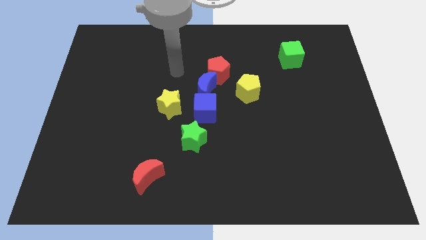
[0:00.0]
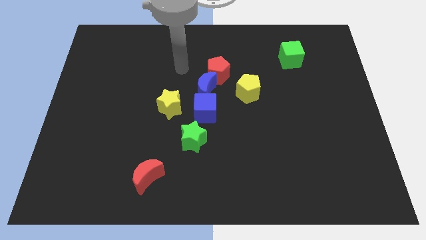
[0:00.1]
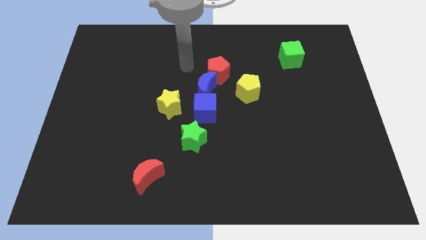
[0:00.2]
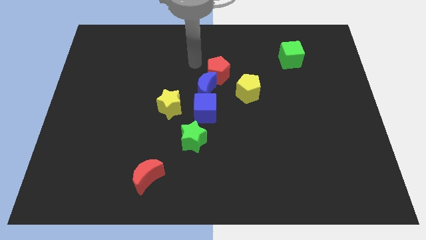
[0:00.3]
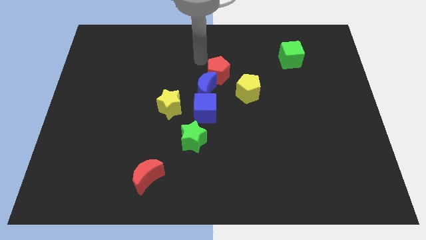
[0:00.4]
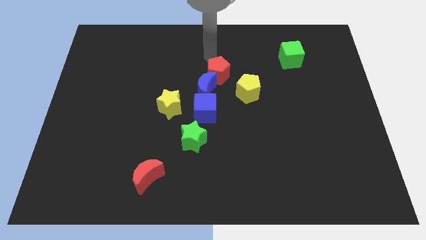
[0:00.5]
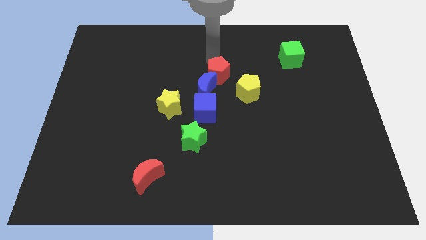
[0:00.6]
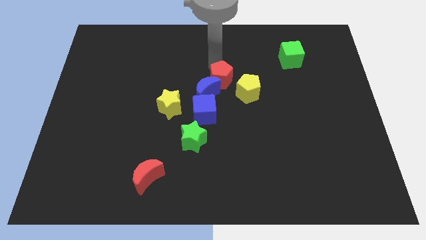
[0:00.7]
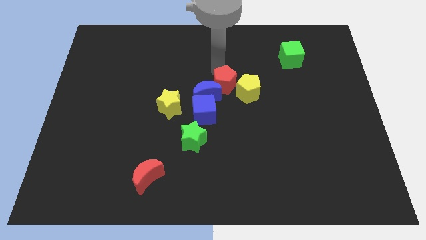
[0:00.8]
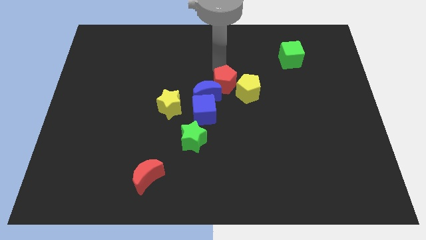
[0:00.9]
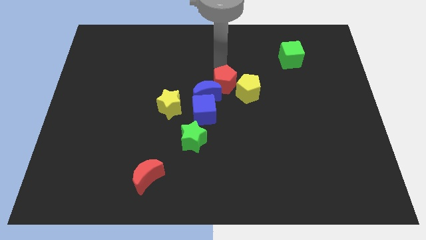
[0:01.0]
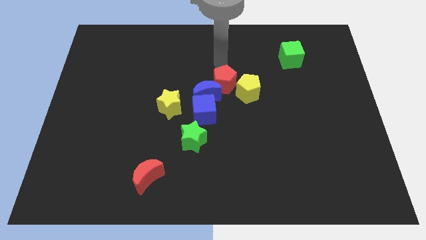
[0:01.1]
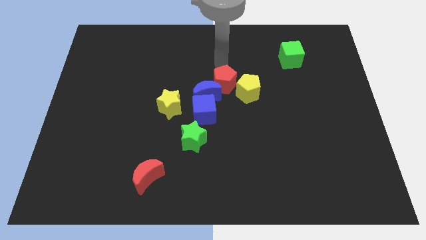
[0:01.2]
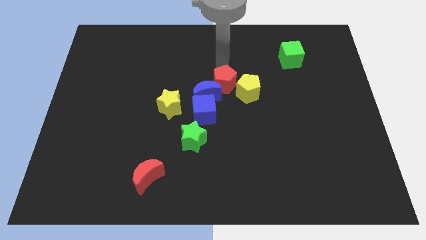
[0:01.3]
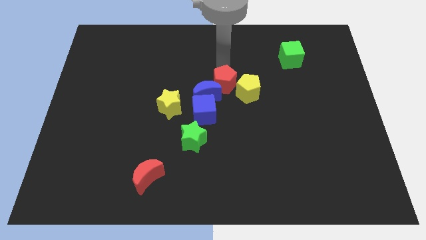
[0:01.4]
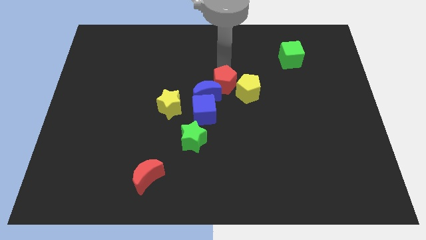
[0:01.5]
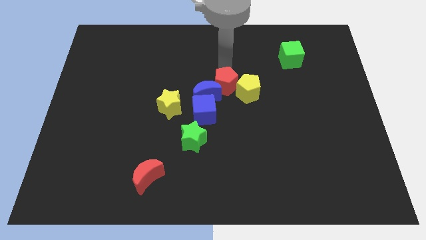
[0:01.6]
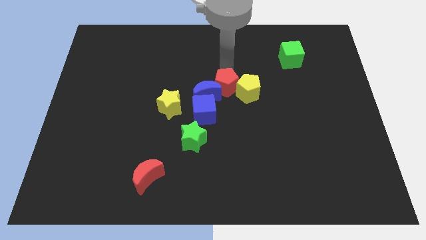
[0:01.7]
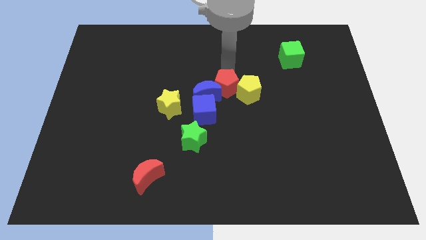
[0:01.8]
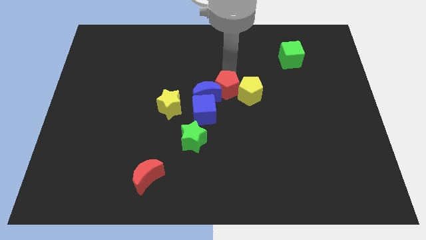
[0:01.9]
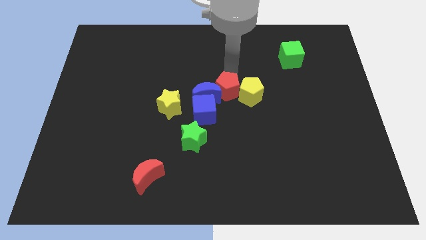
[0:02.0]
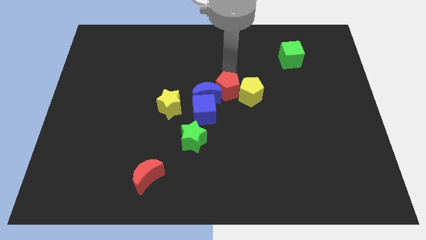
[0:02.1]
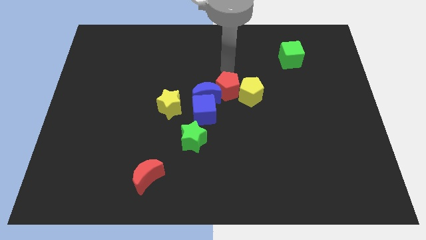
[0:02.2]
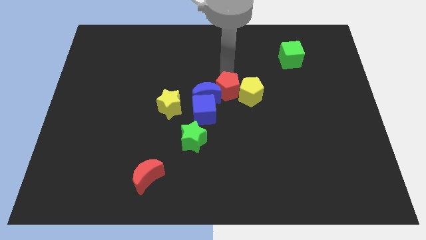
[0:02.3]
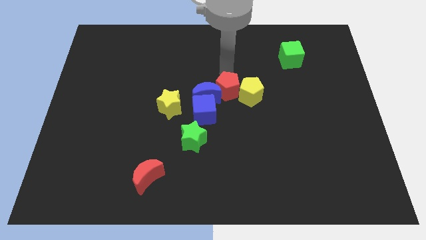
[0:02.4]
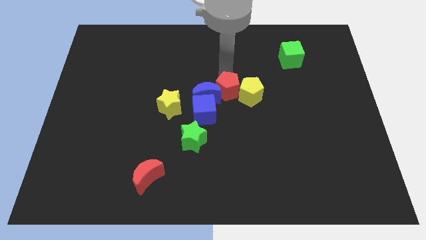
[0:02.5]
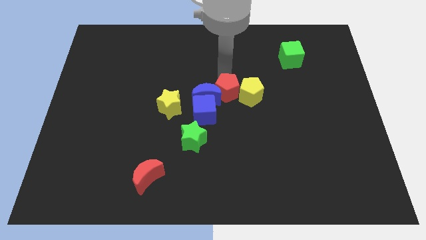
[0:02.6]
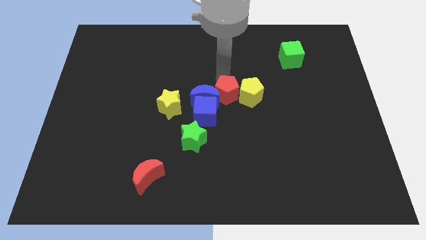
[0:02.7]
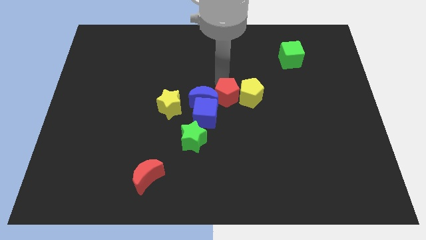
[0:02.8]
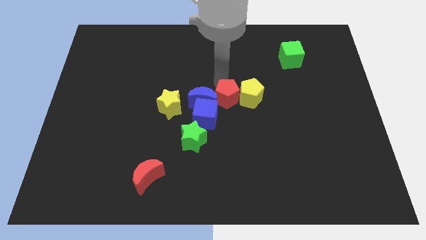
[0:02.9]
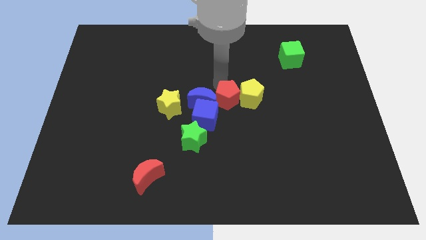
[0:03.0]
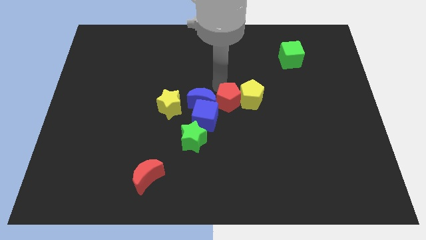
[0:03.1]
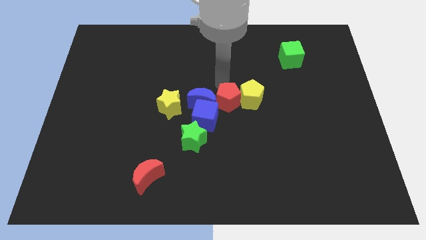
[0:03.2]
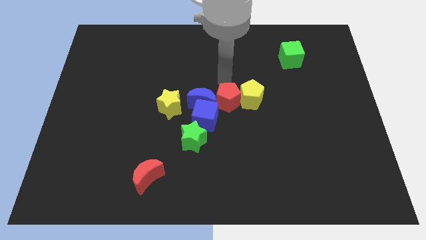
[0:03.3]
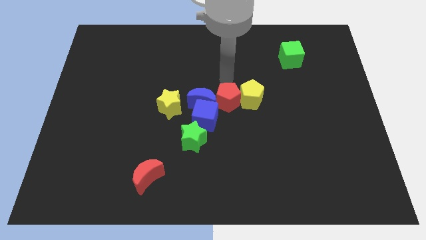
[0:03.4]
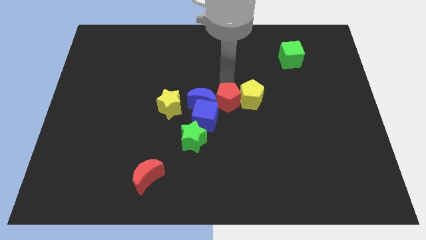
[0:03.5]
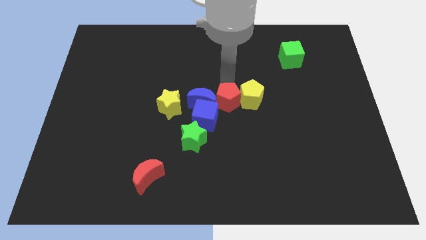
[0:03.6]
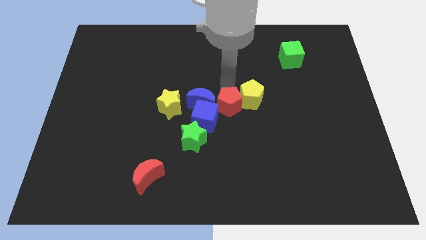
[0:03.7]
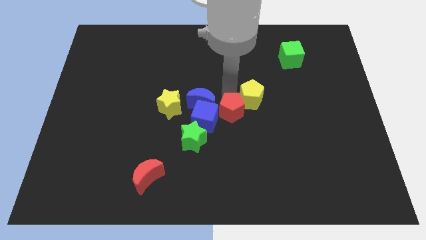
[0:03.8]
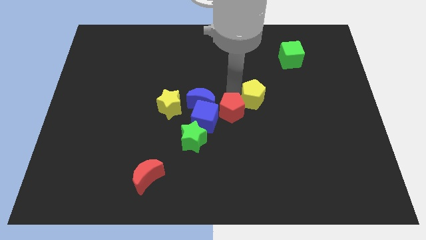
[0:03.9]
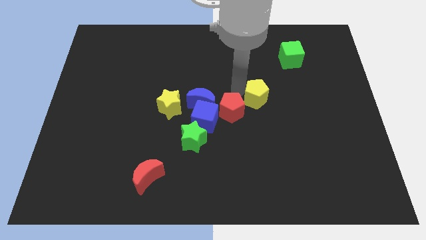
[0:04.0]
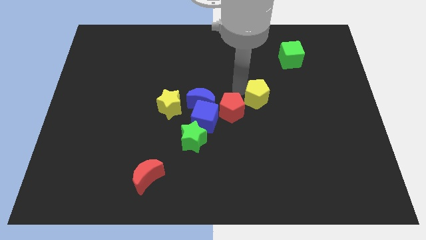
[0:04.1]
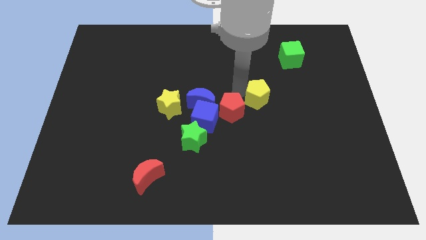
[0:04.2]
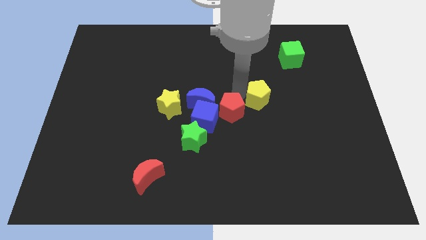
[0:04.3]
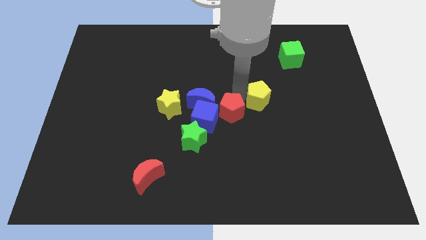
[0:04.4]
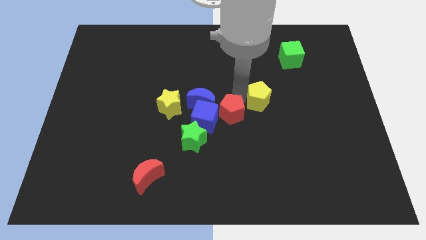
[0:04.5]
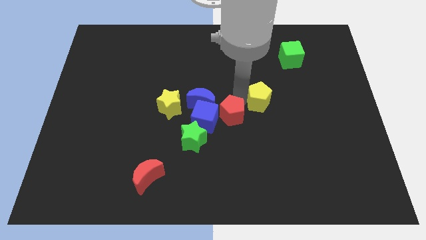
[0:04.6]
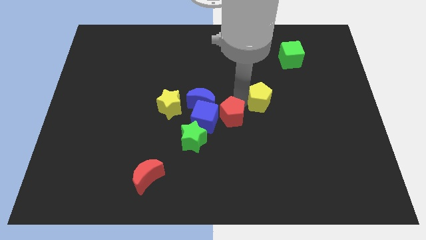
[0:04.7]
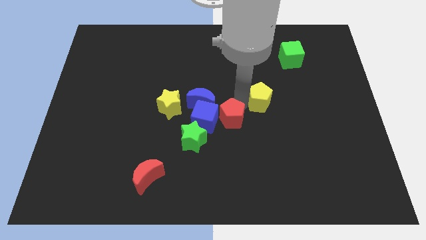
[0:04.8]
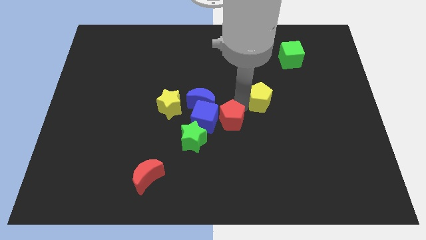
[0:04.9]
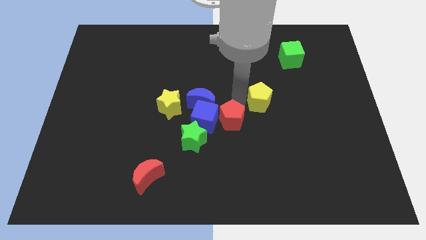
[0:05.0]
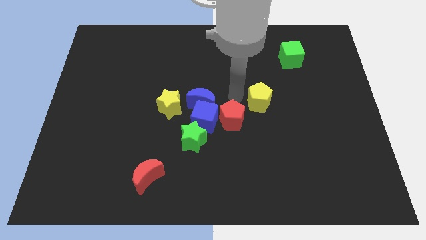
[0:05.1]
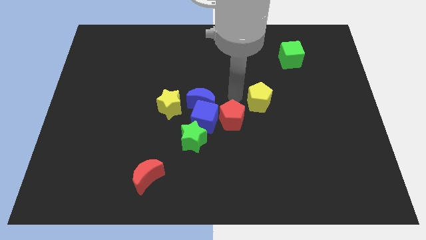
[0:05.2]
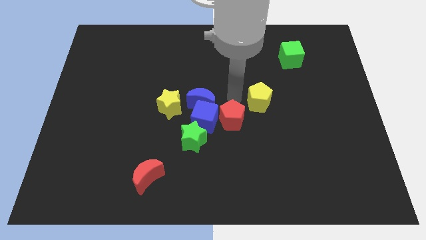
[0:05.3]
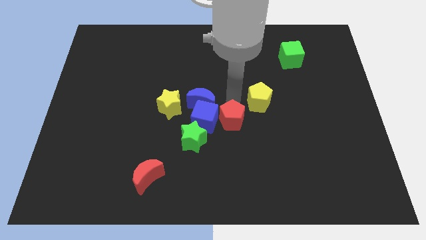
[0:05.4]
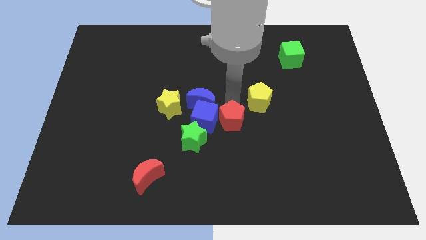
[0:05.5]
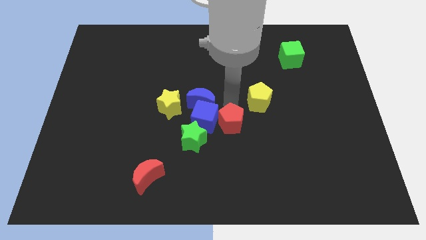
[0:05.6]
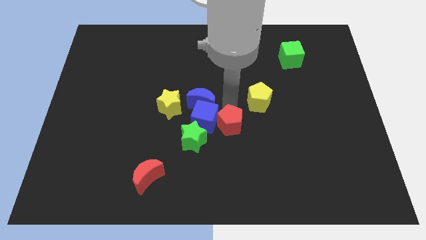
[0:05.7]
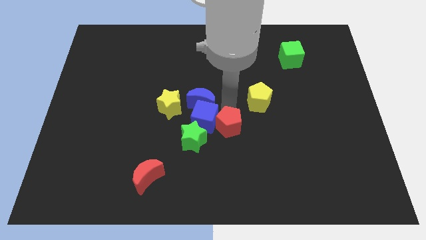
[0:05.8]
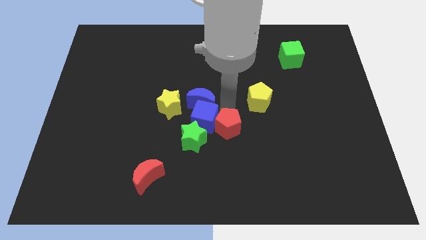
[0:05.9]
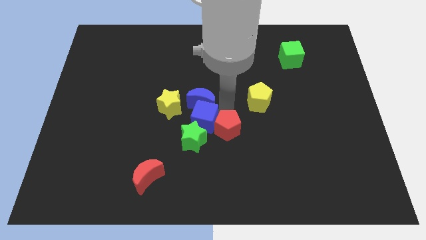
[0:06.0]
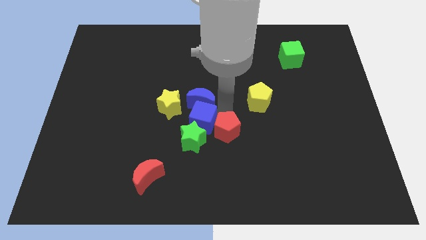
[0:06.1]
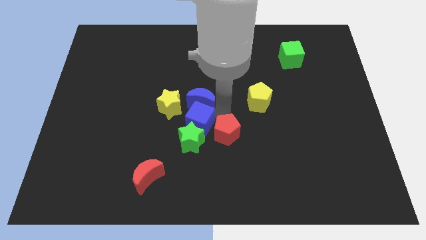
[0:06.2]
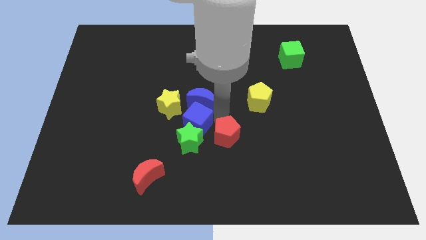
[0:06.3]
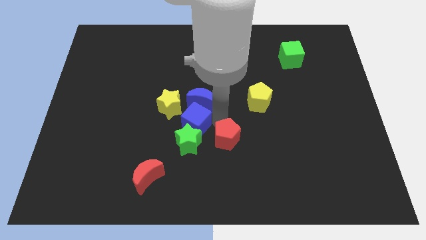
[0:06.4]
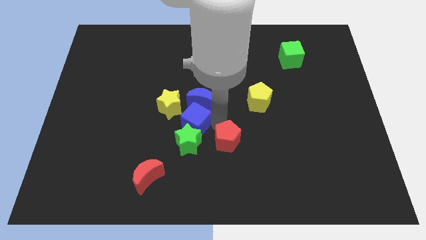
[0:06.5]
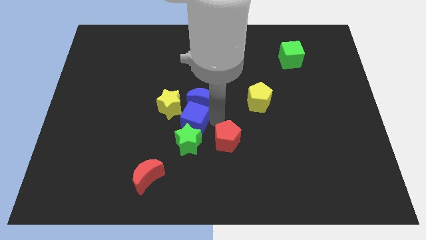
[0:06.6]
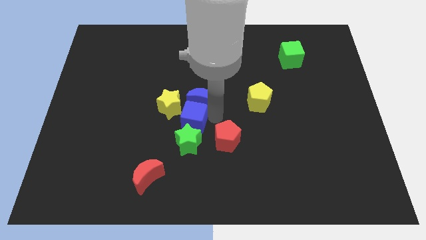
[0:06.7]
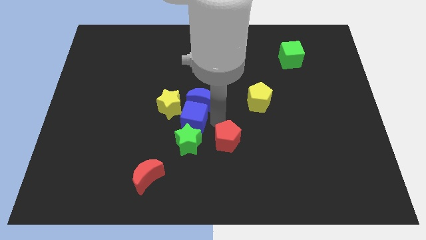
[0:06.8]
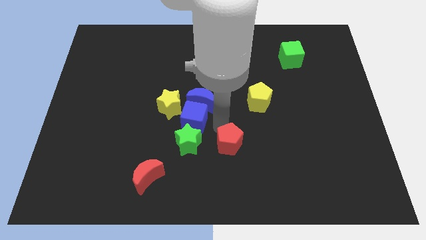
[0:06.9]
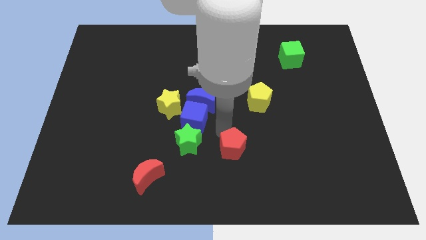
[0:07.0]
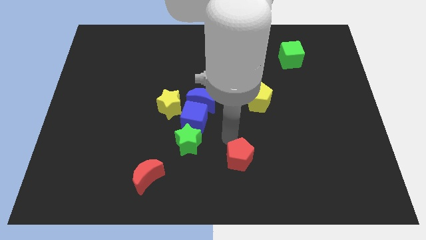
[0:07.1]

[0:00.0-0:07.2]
move the red pentagon to the bottom
